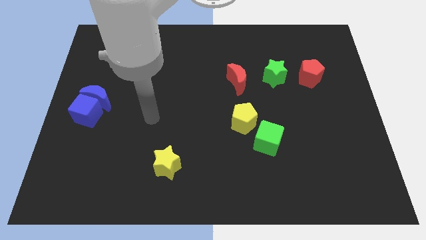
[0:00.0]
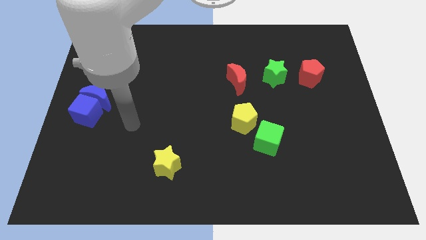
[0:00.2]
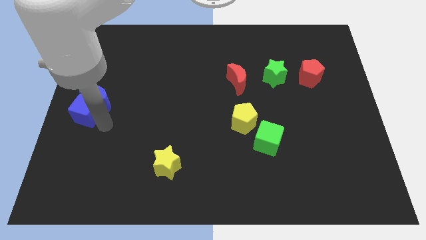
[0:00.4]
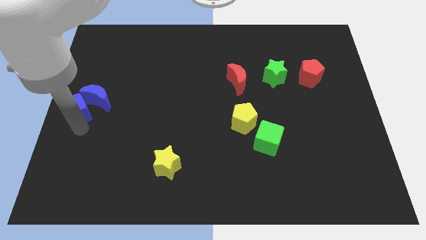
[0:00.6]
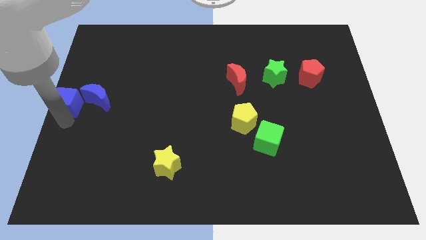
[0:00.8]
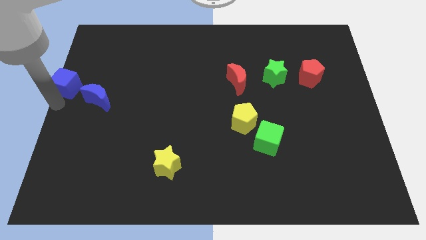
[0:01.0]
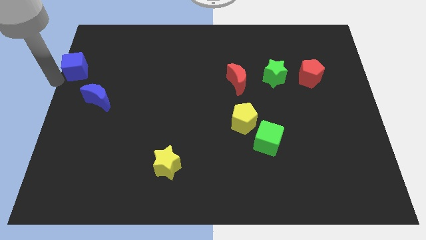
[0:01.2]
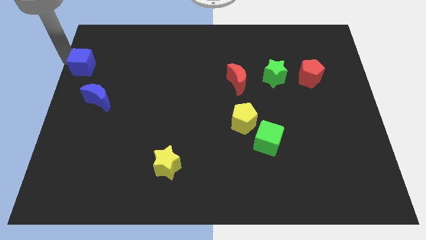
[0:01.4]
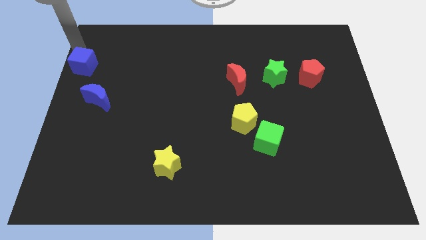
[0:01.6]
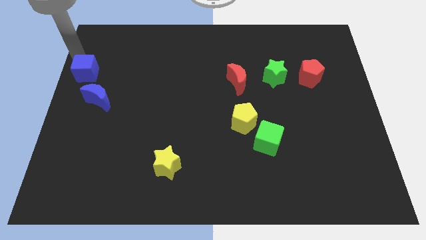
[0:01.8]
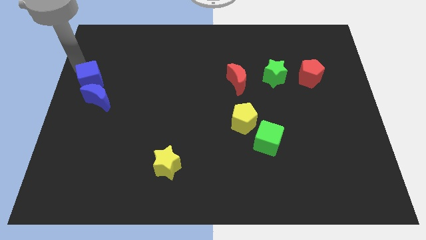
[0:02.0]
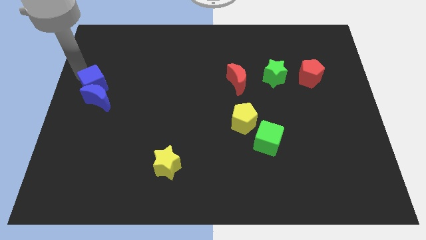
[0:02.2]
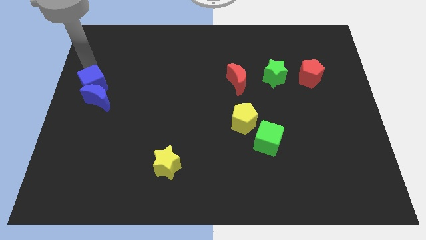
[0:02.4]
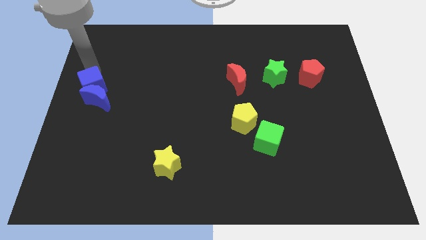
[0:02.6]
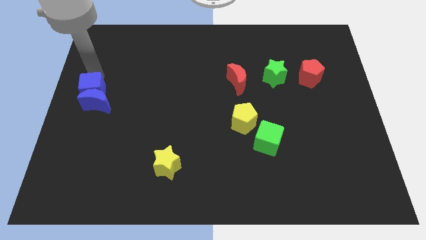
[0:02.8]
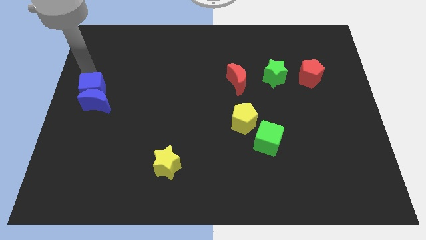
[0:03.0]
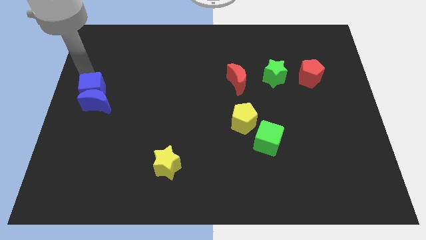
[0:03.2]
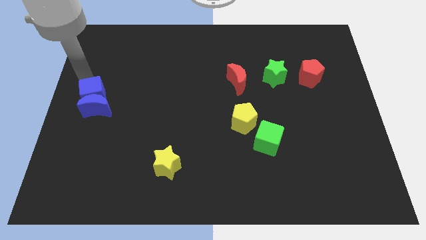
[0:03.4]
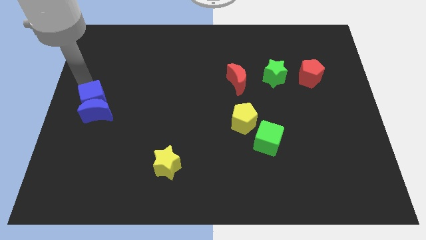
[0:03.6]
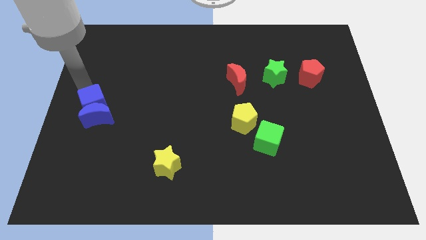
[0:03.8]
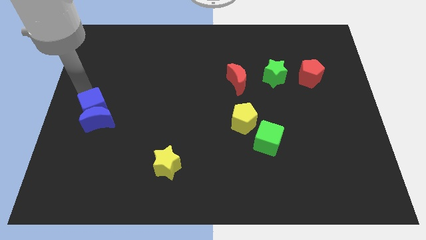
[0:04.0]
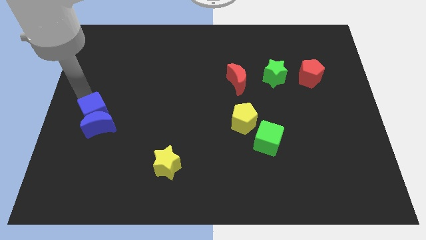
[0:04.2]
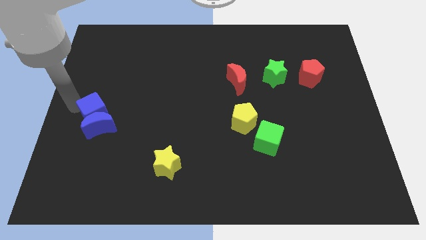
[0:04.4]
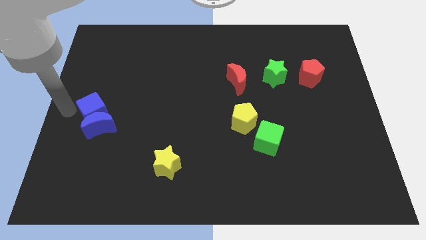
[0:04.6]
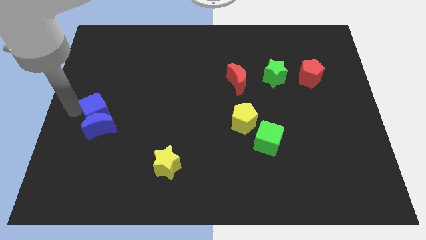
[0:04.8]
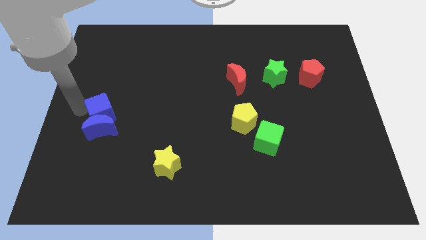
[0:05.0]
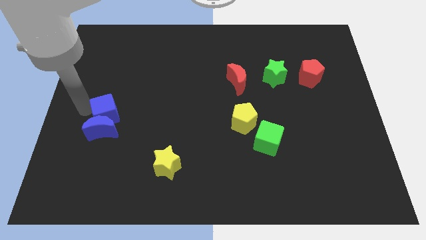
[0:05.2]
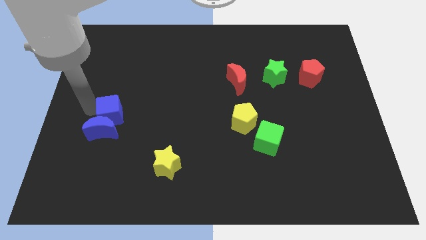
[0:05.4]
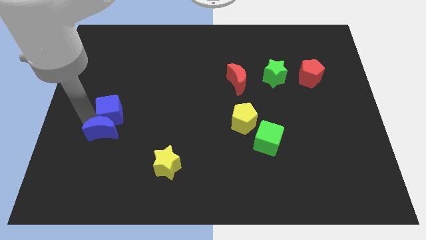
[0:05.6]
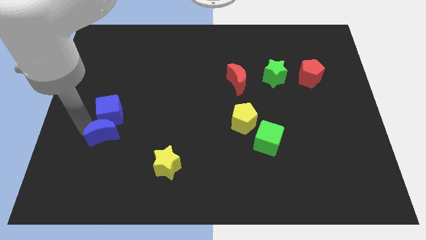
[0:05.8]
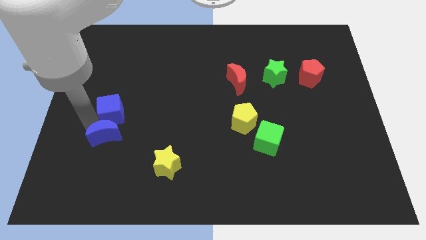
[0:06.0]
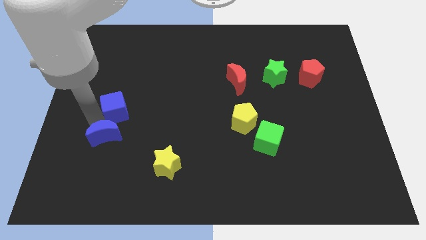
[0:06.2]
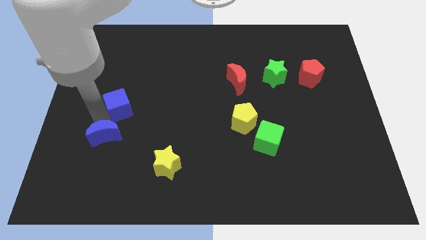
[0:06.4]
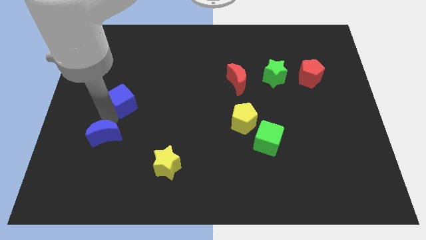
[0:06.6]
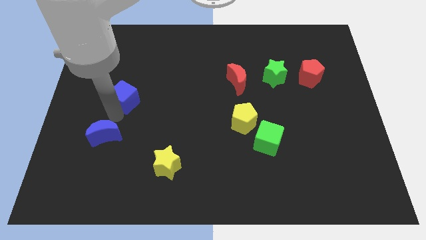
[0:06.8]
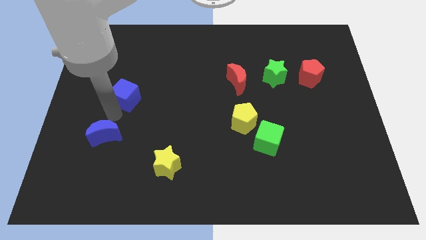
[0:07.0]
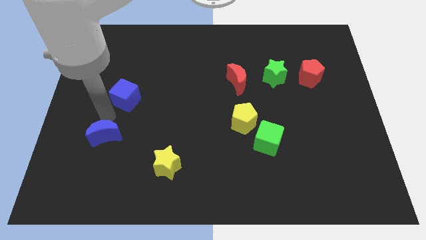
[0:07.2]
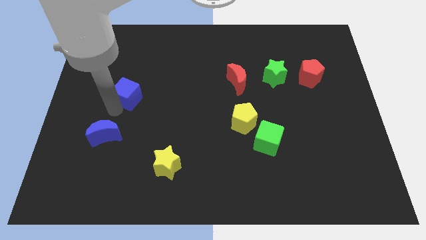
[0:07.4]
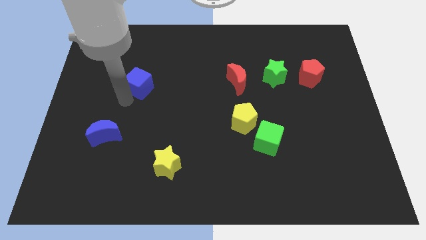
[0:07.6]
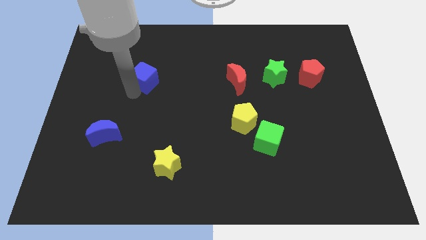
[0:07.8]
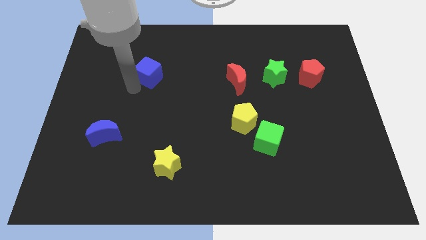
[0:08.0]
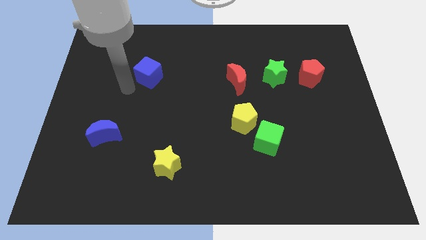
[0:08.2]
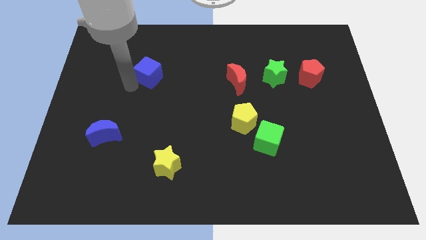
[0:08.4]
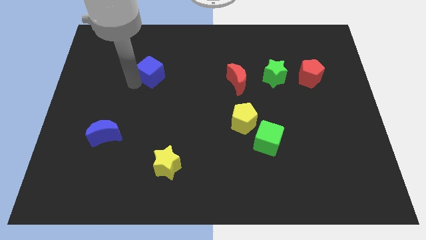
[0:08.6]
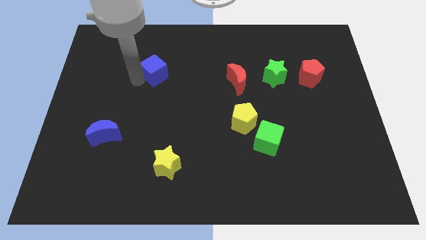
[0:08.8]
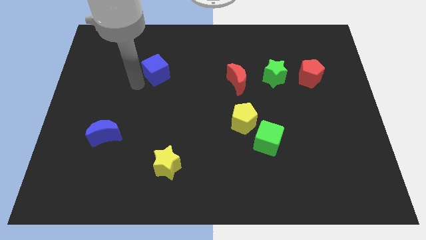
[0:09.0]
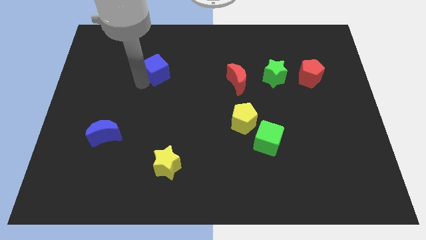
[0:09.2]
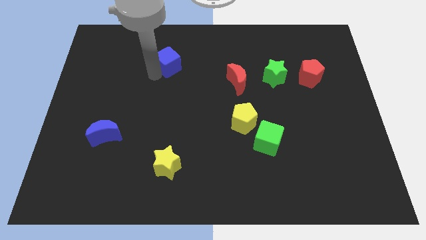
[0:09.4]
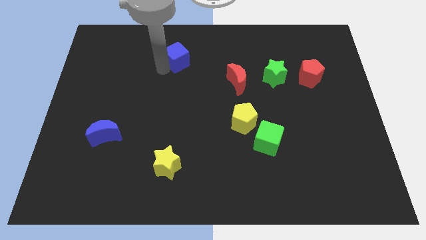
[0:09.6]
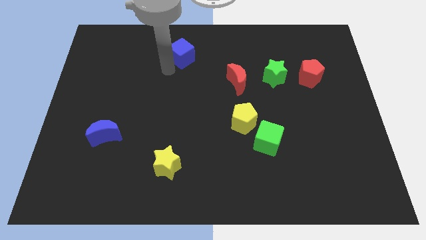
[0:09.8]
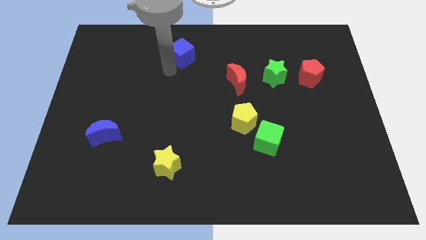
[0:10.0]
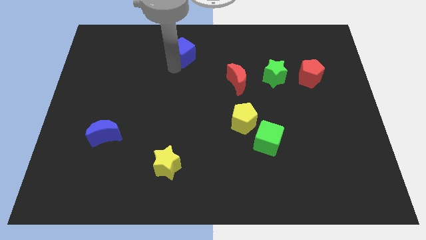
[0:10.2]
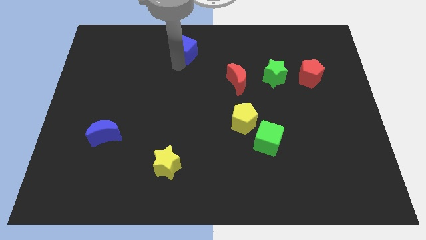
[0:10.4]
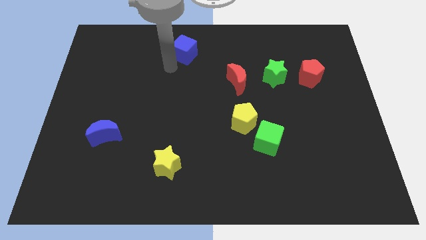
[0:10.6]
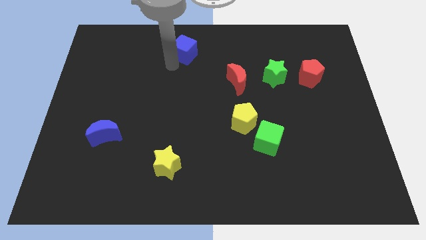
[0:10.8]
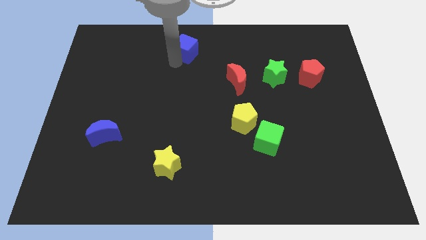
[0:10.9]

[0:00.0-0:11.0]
slide the blue cube to the towards your base
